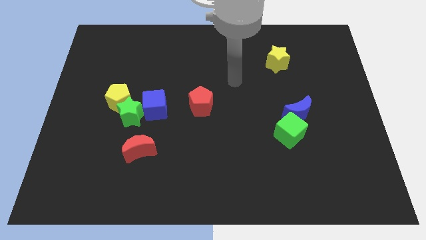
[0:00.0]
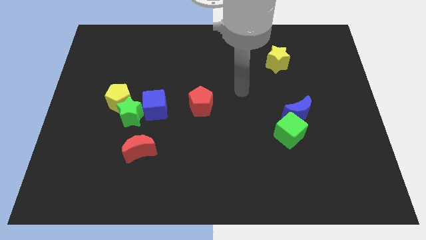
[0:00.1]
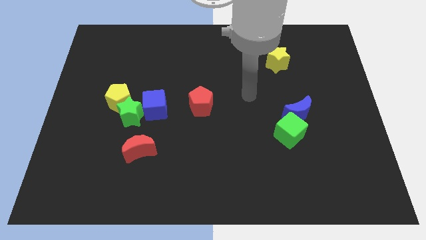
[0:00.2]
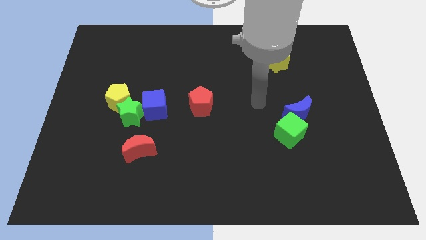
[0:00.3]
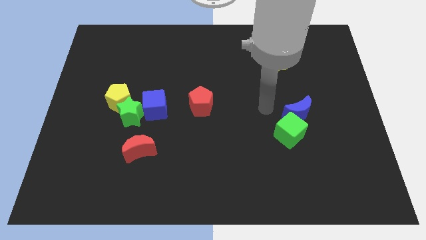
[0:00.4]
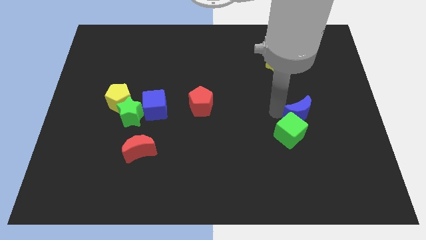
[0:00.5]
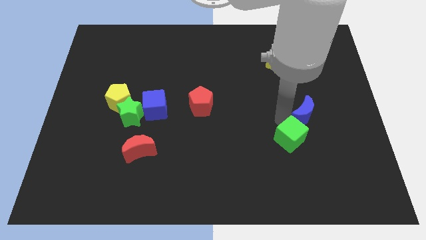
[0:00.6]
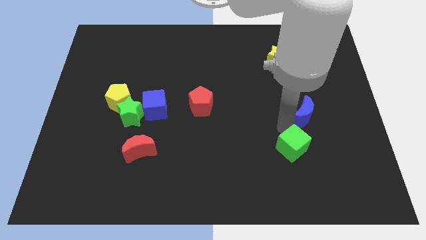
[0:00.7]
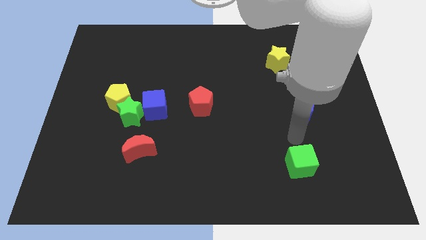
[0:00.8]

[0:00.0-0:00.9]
separate the blue moon from the green cube

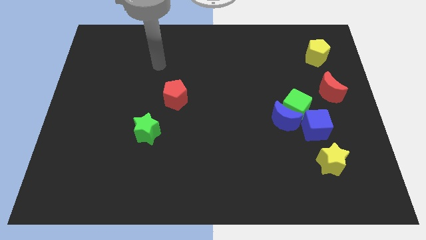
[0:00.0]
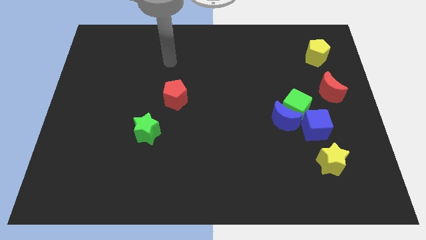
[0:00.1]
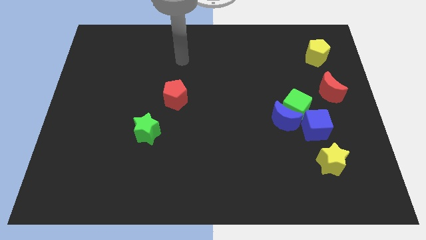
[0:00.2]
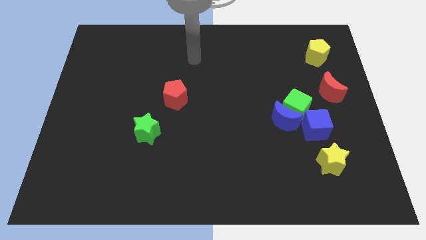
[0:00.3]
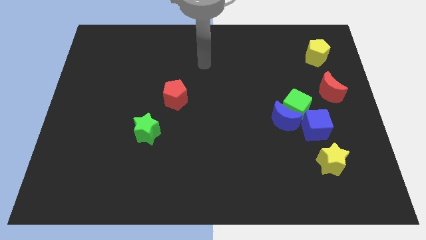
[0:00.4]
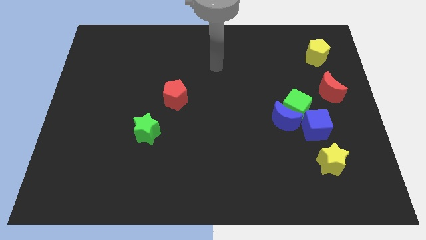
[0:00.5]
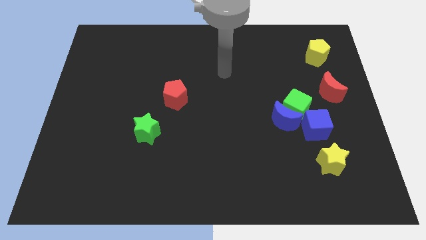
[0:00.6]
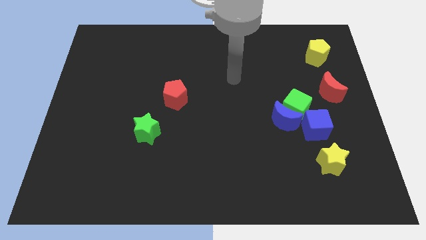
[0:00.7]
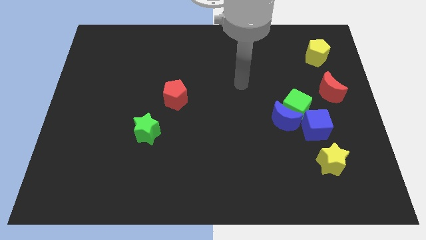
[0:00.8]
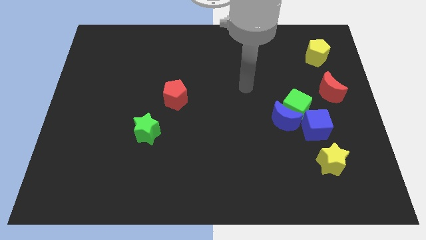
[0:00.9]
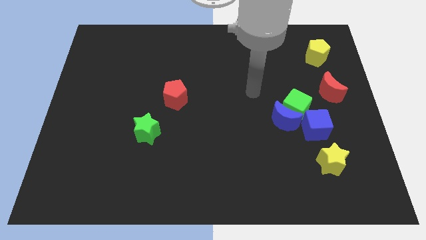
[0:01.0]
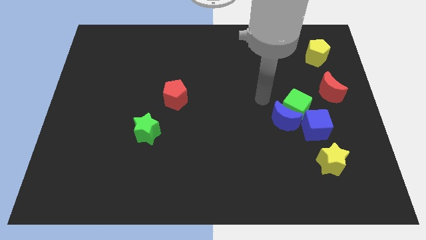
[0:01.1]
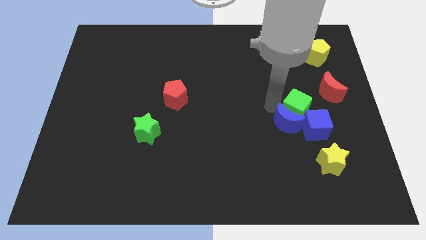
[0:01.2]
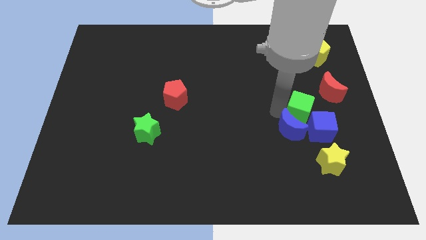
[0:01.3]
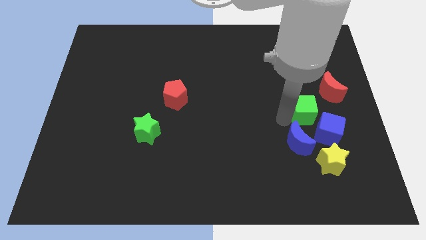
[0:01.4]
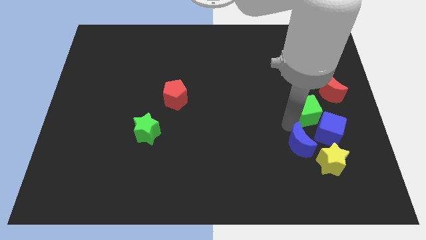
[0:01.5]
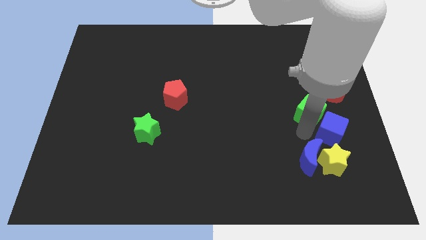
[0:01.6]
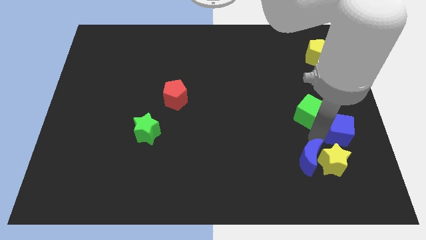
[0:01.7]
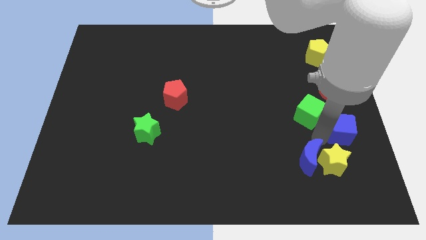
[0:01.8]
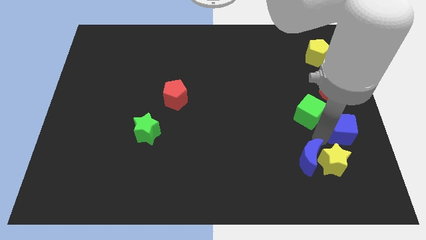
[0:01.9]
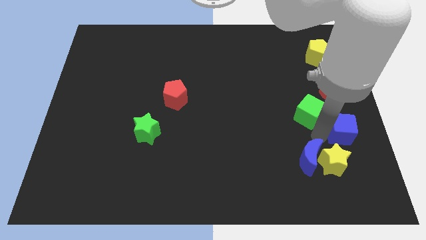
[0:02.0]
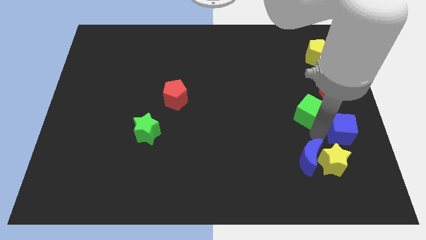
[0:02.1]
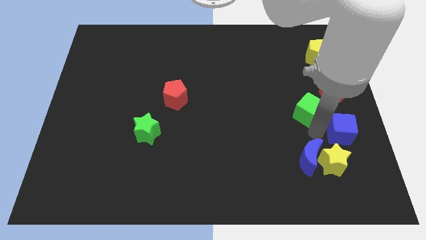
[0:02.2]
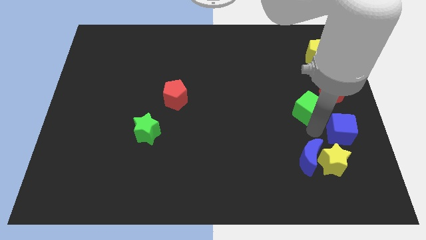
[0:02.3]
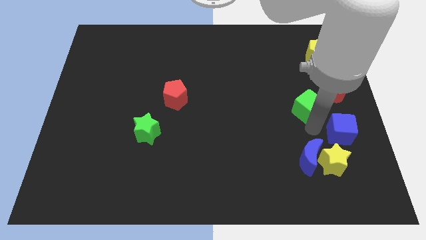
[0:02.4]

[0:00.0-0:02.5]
move the green cube away from the blue moon and blue cube

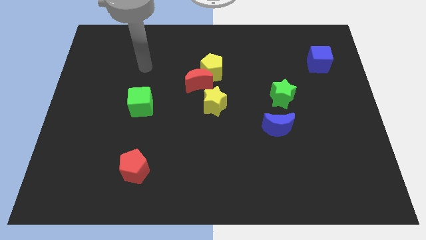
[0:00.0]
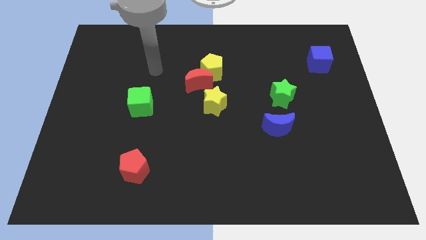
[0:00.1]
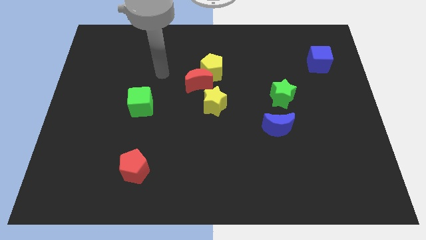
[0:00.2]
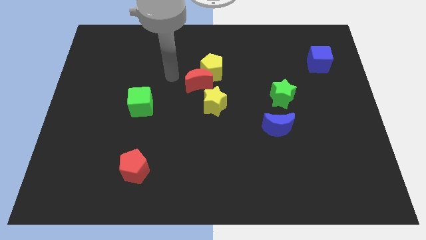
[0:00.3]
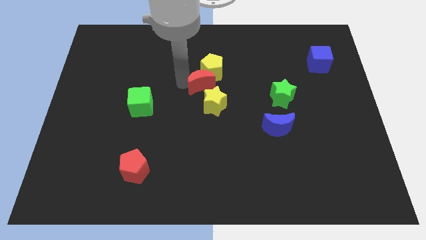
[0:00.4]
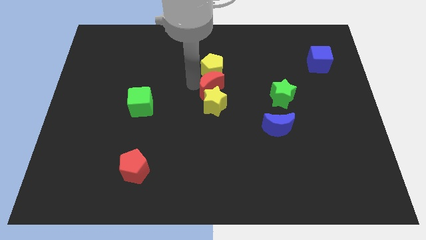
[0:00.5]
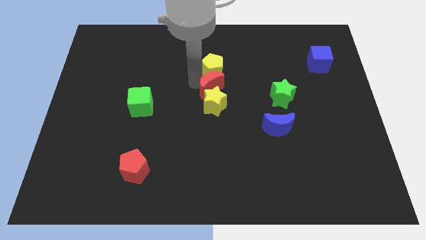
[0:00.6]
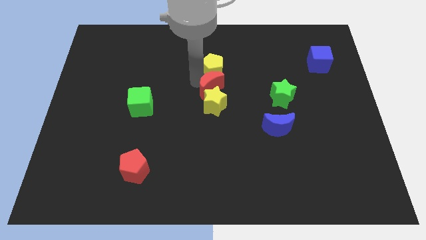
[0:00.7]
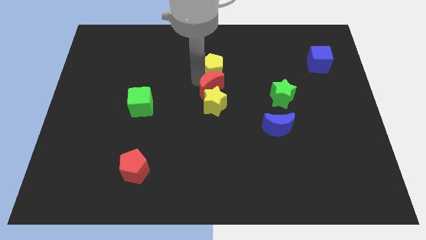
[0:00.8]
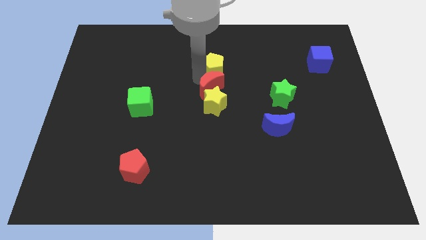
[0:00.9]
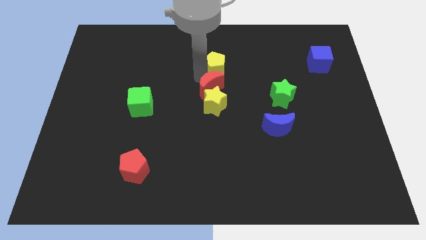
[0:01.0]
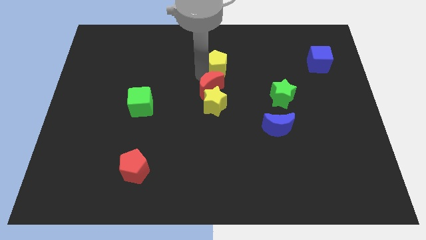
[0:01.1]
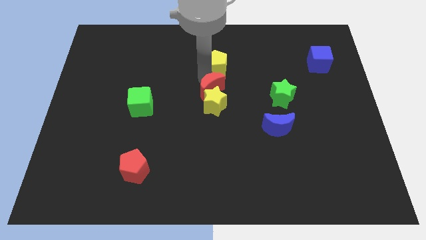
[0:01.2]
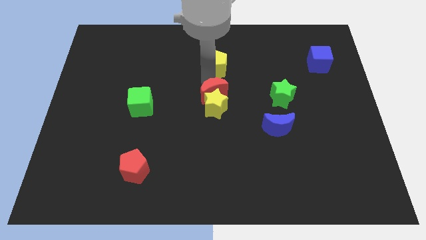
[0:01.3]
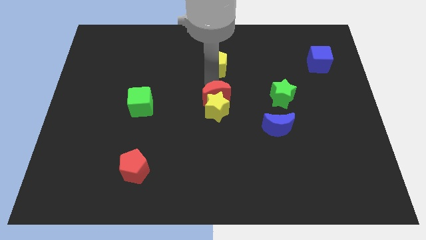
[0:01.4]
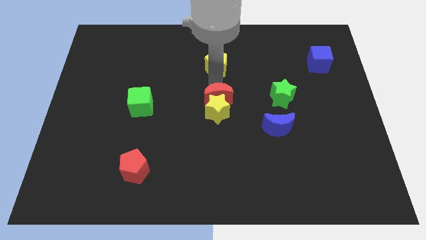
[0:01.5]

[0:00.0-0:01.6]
move the yellow pentagon away from the red moon

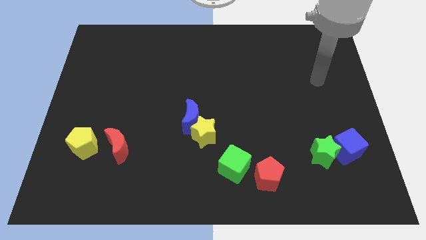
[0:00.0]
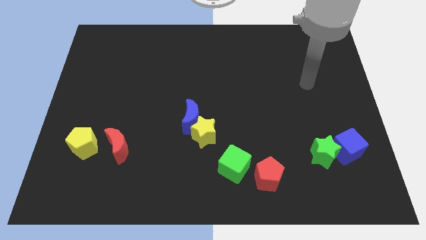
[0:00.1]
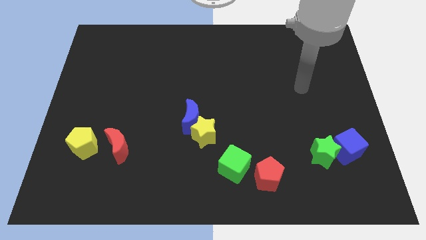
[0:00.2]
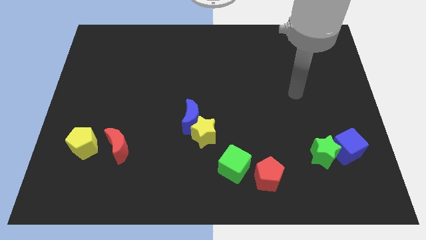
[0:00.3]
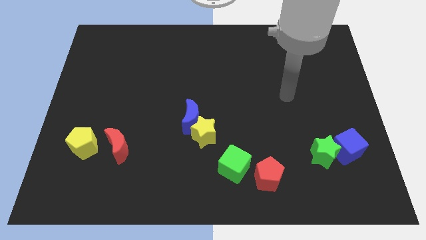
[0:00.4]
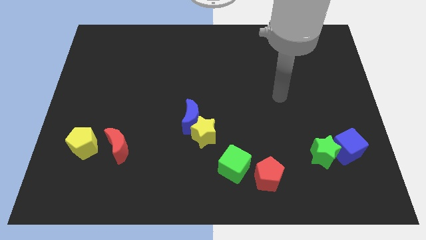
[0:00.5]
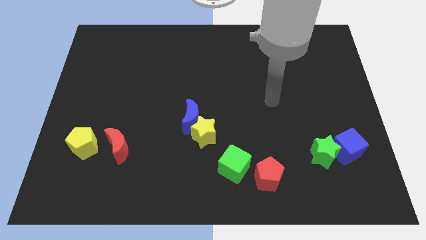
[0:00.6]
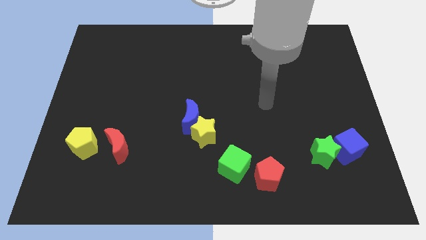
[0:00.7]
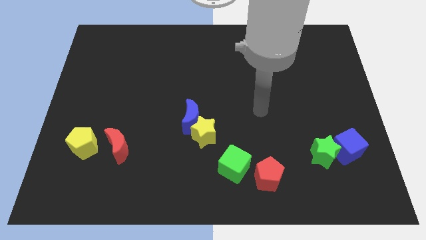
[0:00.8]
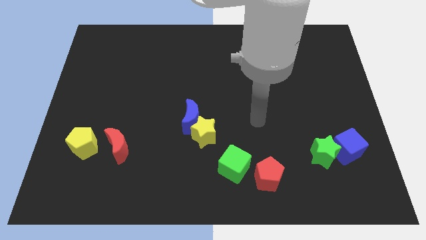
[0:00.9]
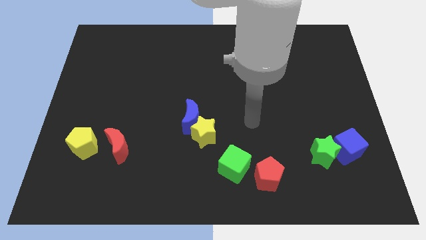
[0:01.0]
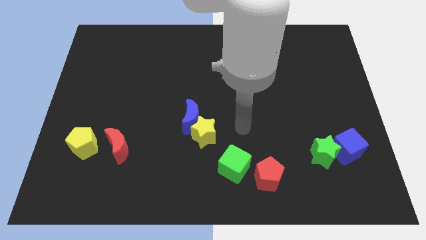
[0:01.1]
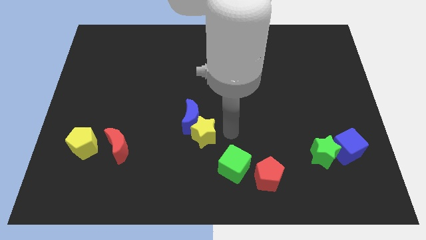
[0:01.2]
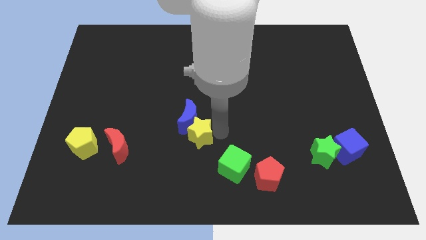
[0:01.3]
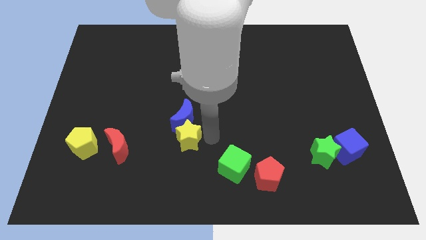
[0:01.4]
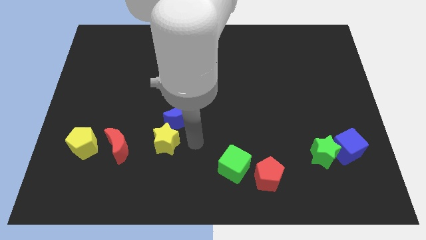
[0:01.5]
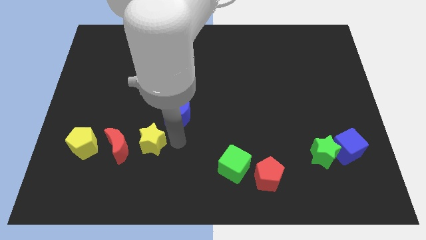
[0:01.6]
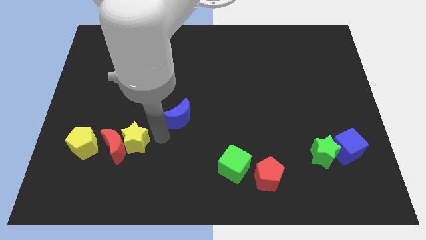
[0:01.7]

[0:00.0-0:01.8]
move the blue moon away from the yellow star

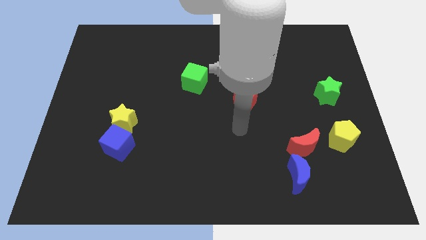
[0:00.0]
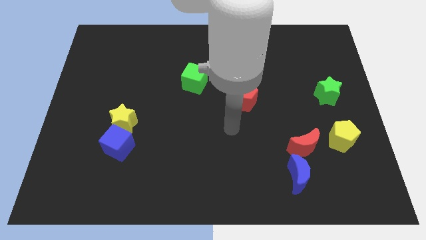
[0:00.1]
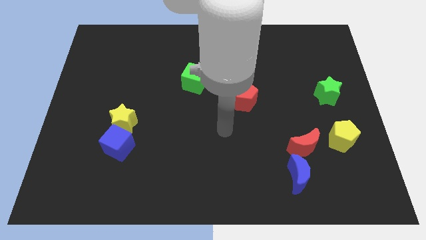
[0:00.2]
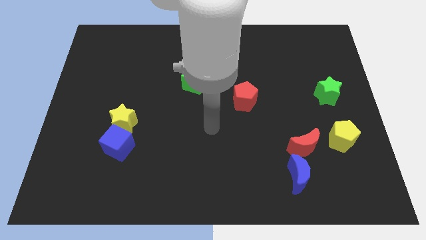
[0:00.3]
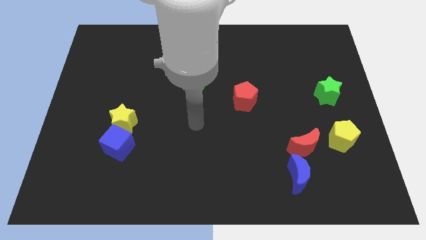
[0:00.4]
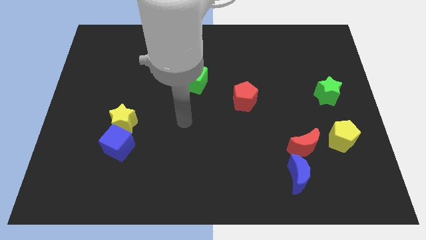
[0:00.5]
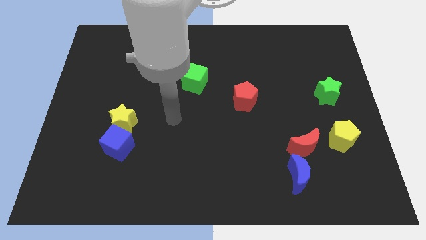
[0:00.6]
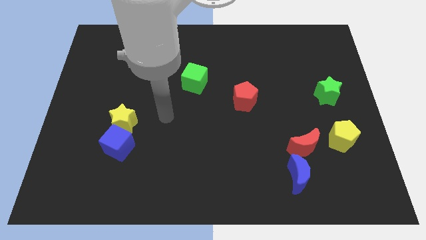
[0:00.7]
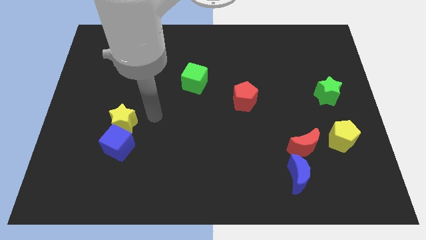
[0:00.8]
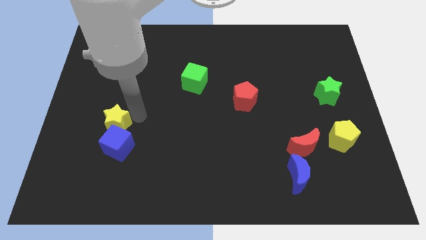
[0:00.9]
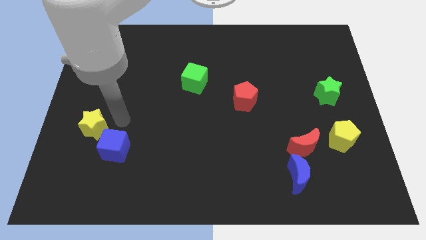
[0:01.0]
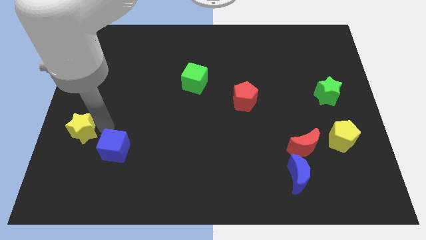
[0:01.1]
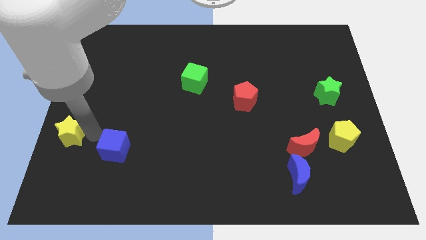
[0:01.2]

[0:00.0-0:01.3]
move the blue cube away from the yellow star

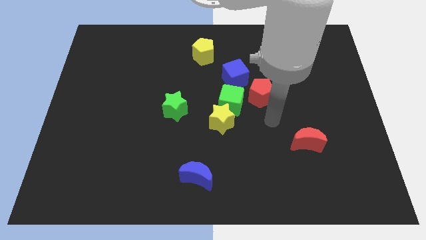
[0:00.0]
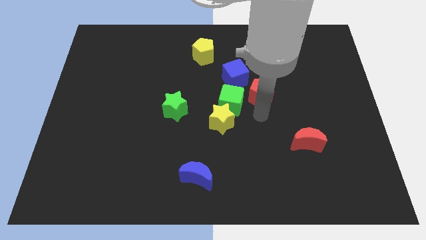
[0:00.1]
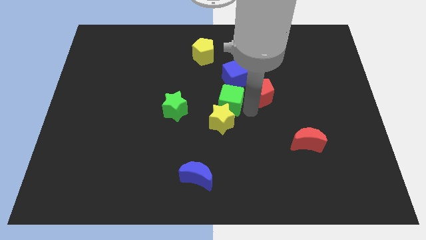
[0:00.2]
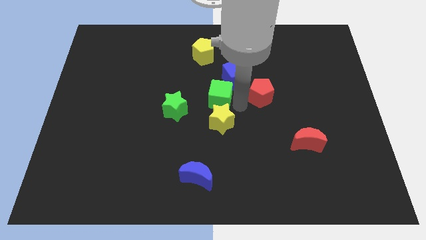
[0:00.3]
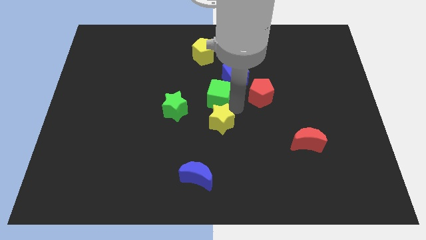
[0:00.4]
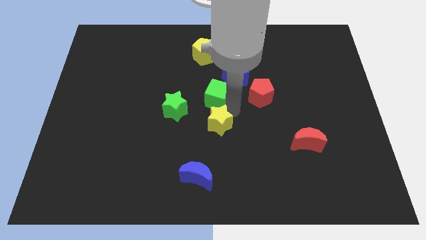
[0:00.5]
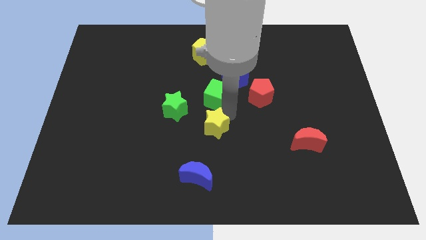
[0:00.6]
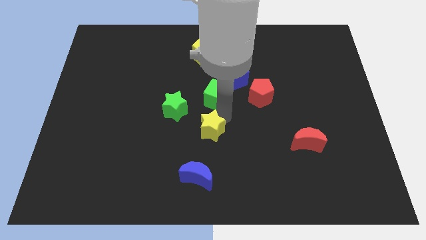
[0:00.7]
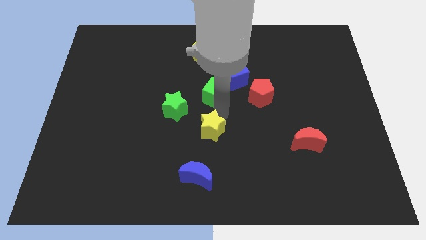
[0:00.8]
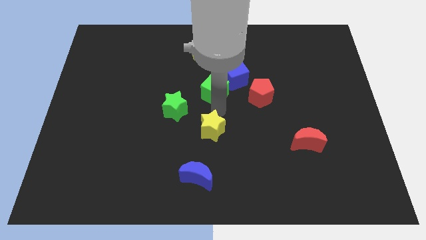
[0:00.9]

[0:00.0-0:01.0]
pull the yellow star apart from the green cube
